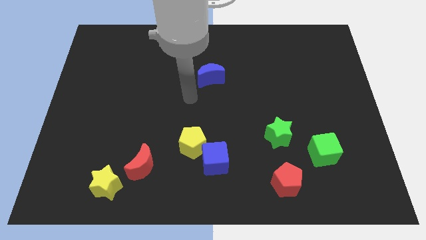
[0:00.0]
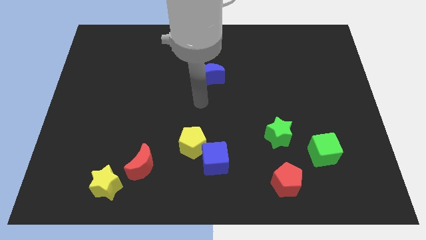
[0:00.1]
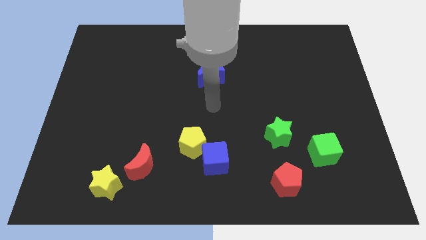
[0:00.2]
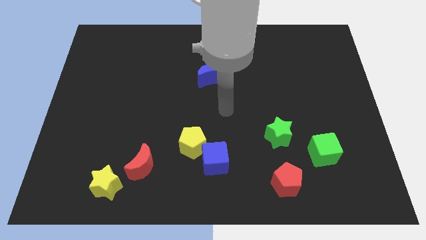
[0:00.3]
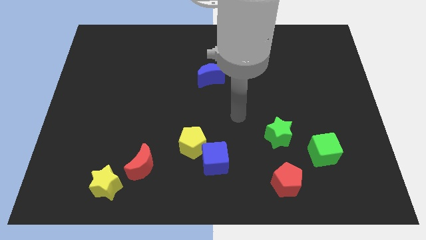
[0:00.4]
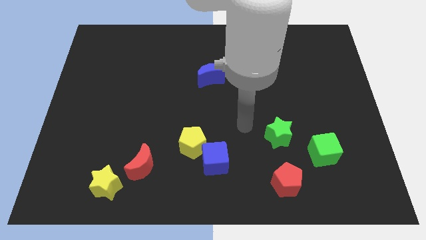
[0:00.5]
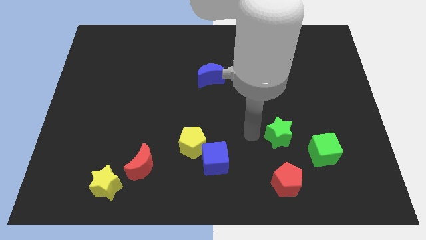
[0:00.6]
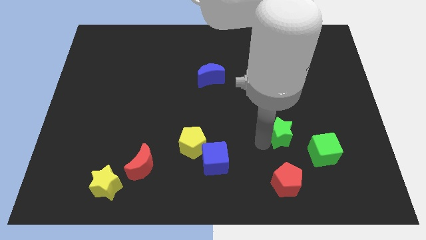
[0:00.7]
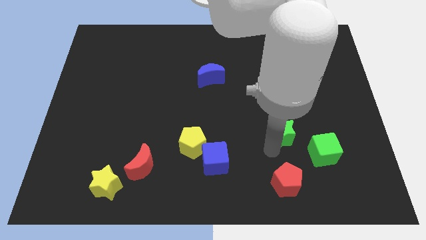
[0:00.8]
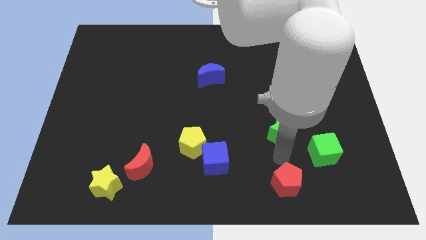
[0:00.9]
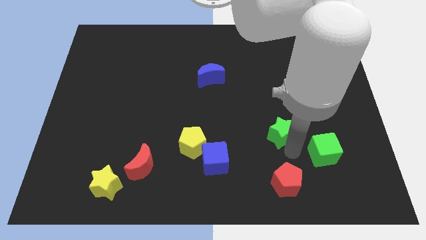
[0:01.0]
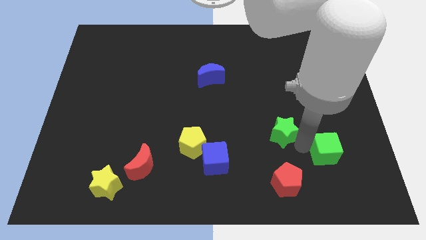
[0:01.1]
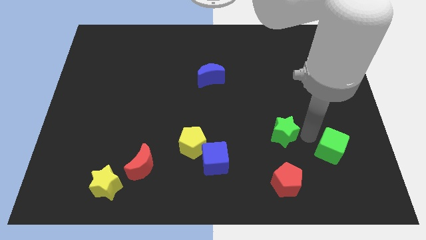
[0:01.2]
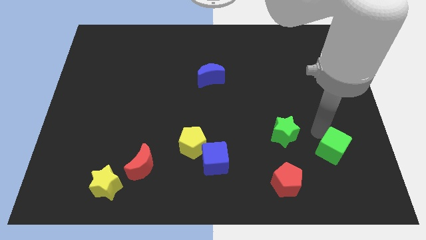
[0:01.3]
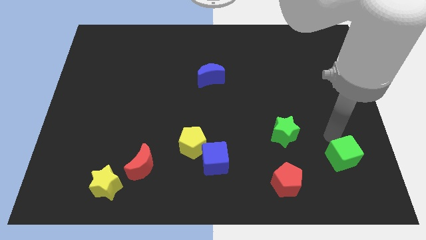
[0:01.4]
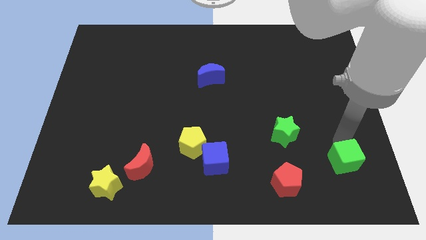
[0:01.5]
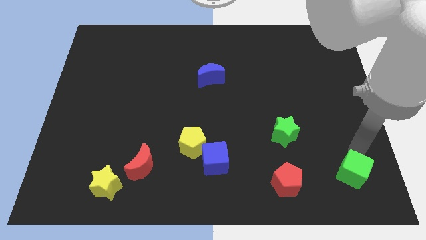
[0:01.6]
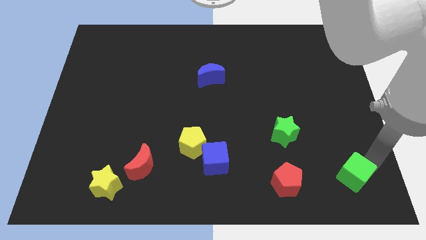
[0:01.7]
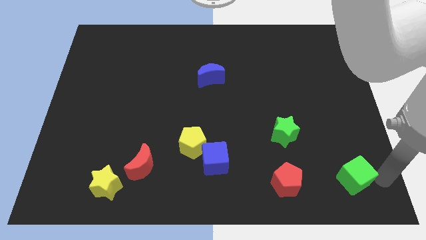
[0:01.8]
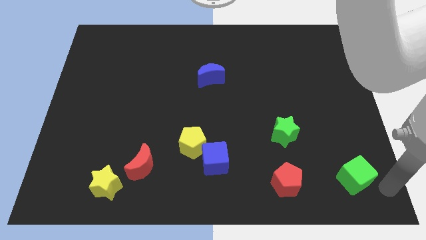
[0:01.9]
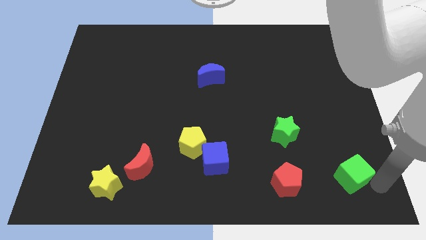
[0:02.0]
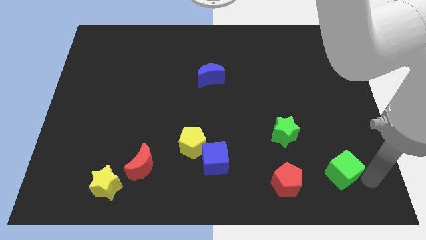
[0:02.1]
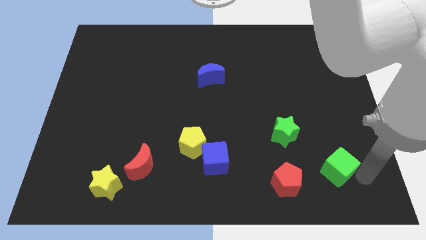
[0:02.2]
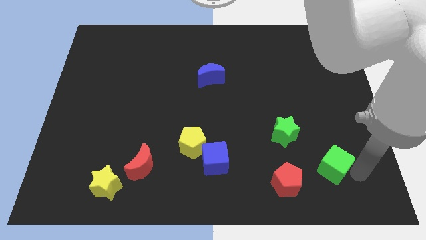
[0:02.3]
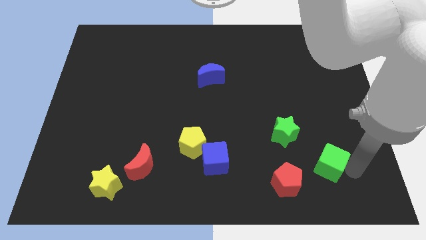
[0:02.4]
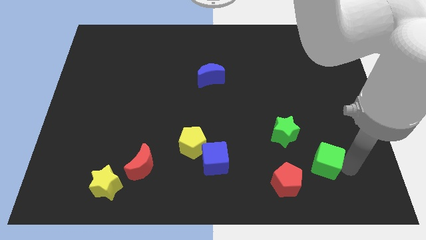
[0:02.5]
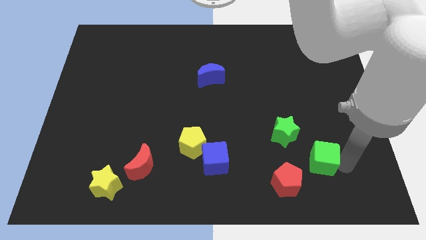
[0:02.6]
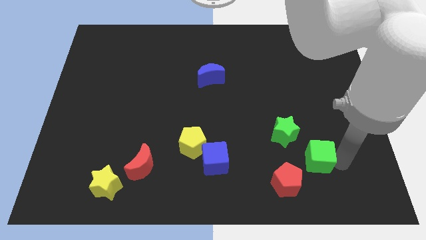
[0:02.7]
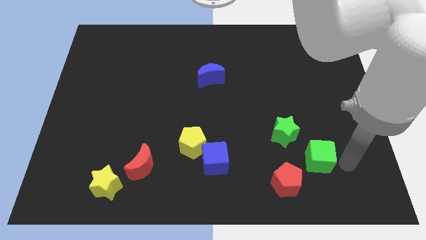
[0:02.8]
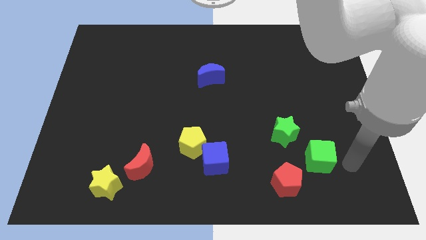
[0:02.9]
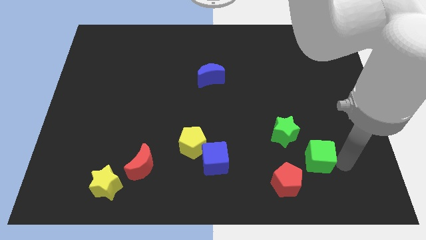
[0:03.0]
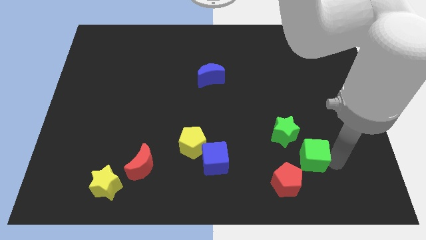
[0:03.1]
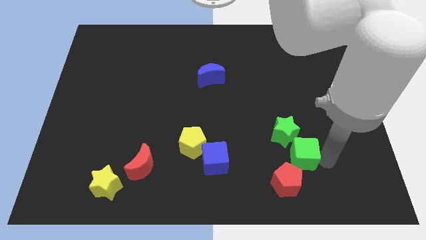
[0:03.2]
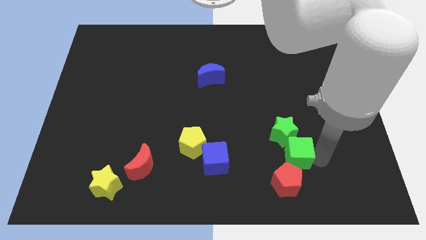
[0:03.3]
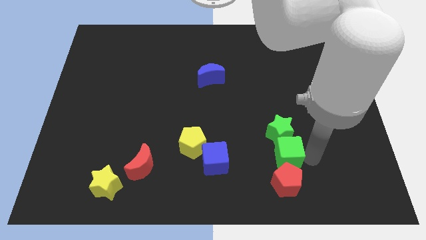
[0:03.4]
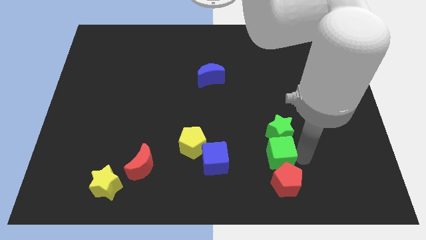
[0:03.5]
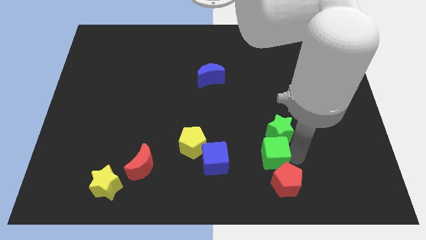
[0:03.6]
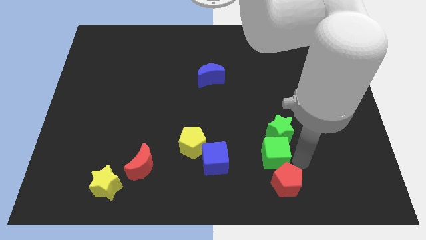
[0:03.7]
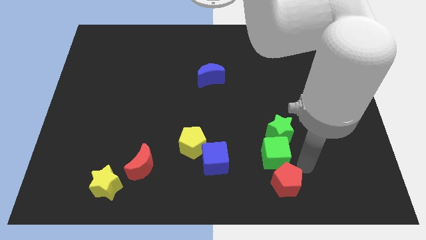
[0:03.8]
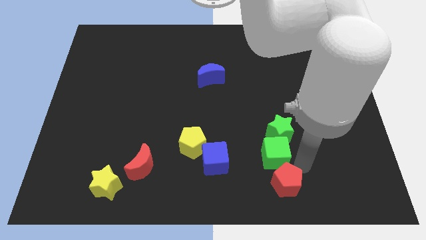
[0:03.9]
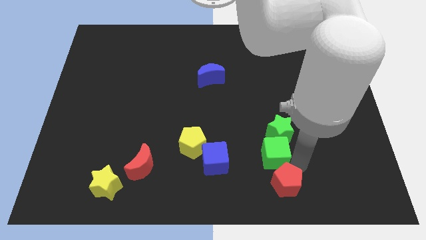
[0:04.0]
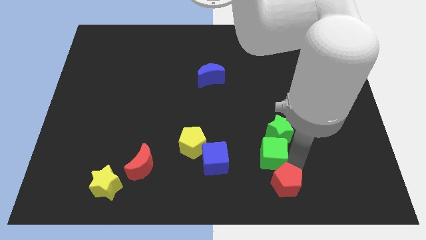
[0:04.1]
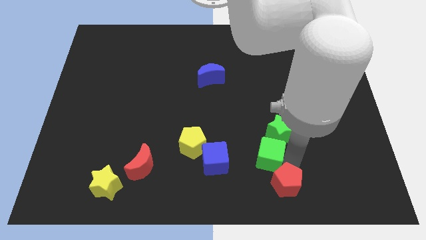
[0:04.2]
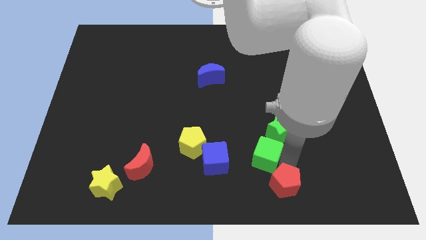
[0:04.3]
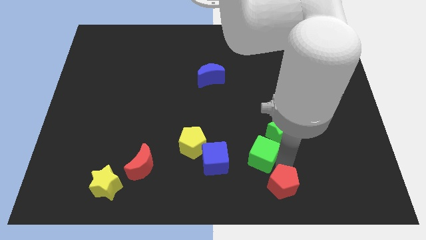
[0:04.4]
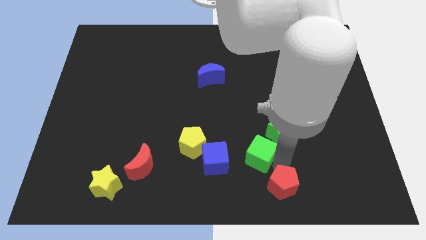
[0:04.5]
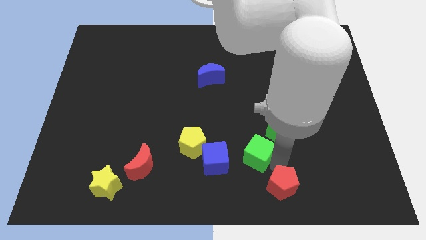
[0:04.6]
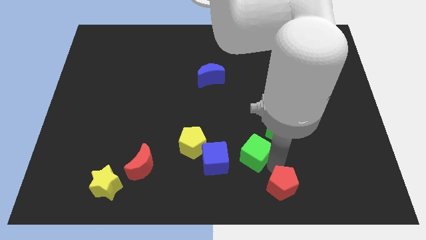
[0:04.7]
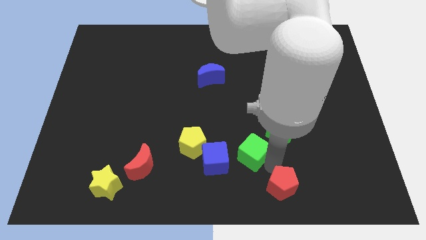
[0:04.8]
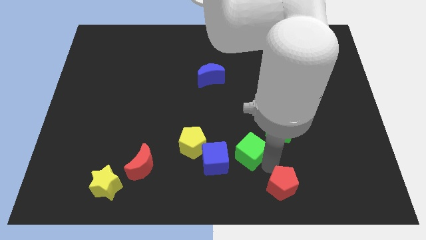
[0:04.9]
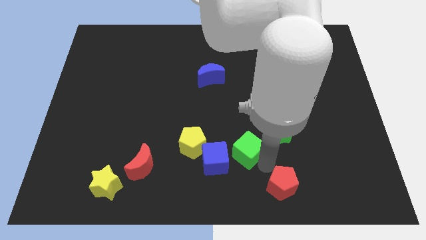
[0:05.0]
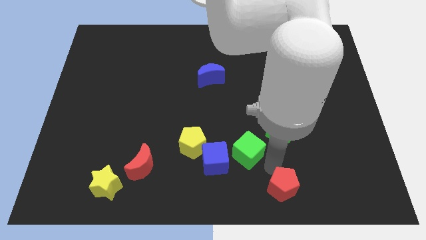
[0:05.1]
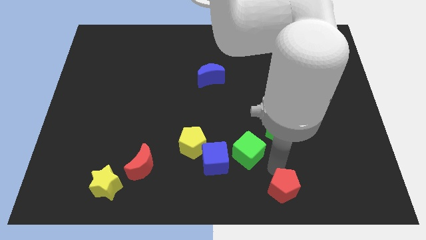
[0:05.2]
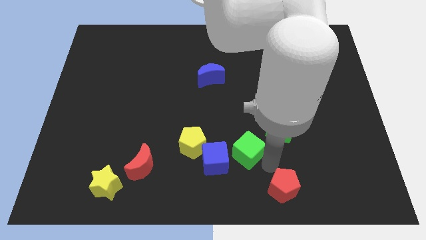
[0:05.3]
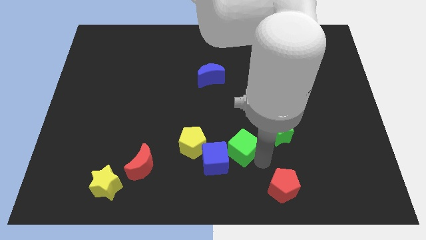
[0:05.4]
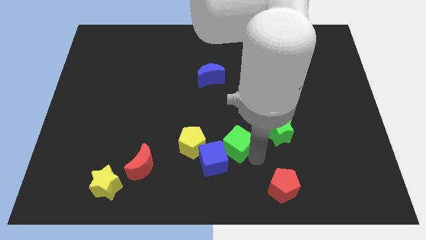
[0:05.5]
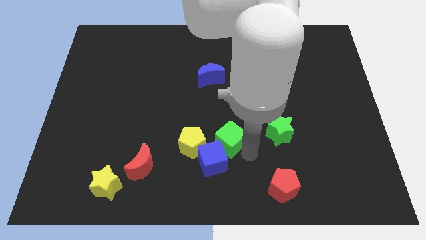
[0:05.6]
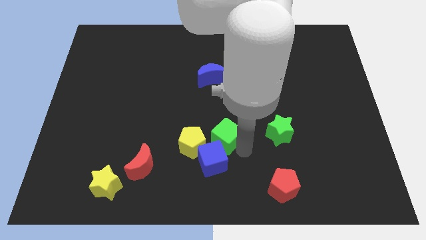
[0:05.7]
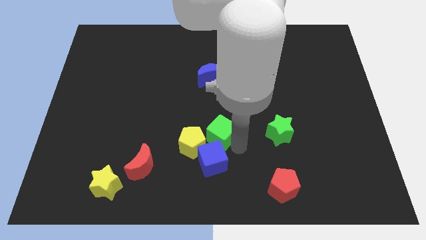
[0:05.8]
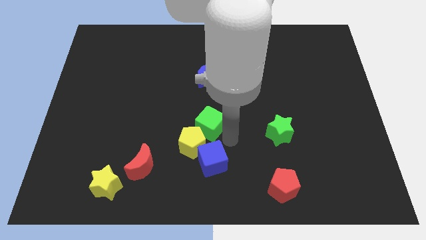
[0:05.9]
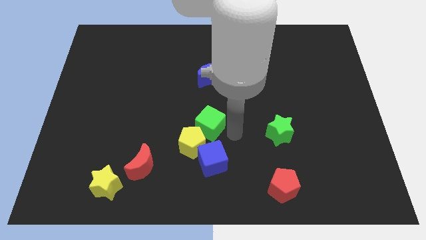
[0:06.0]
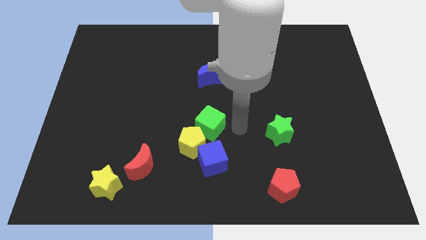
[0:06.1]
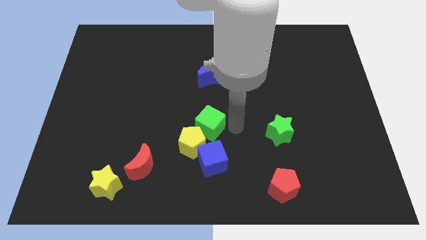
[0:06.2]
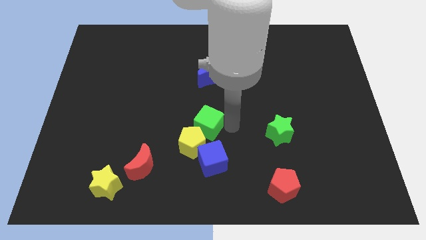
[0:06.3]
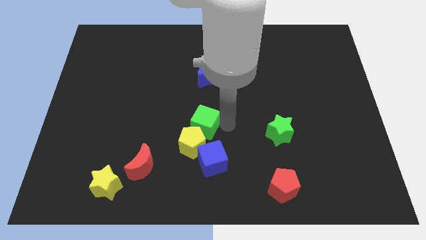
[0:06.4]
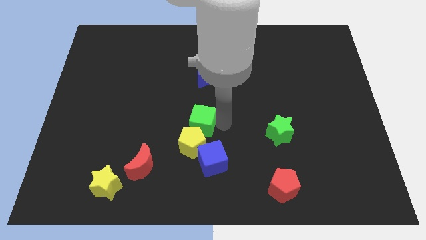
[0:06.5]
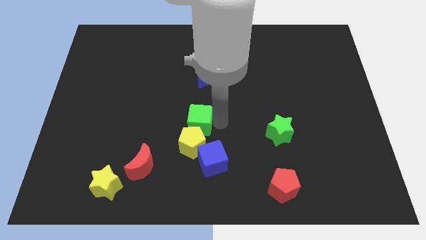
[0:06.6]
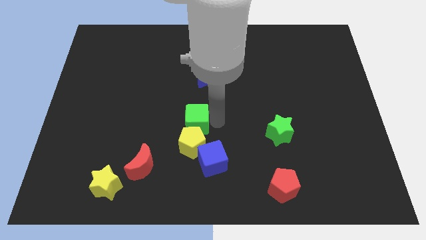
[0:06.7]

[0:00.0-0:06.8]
move the green cube to the top left of the yellow pentagon
